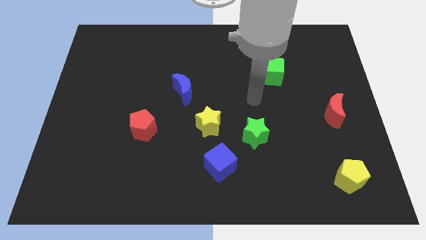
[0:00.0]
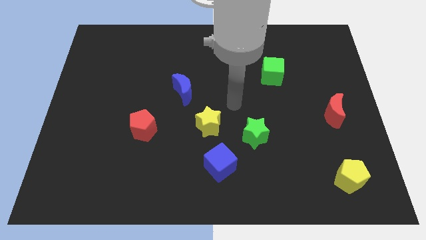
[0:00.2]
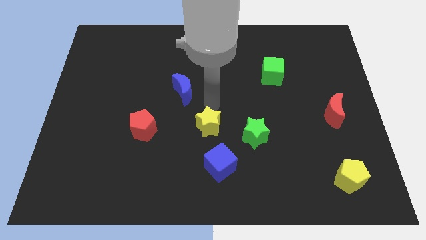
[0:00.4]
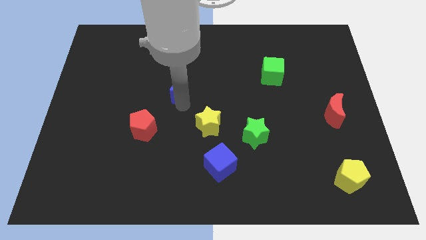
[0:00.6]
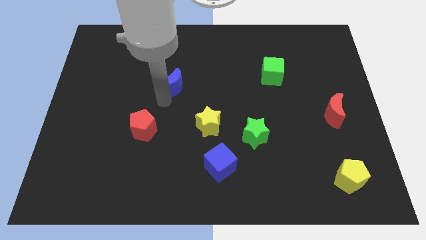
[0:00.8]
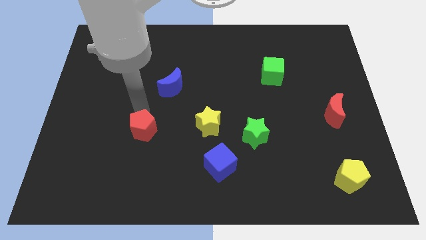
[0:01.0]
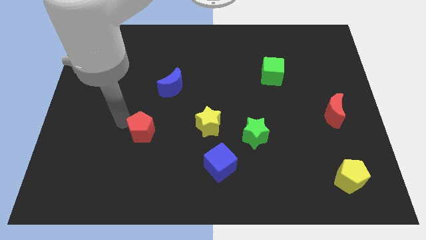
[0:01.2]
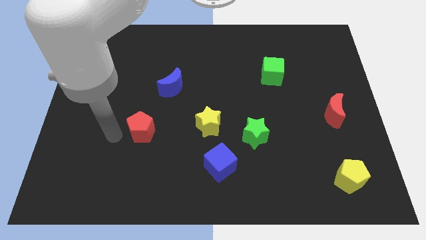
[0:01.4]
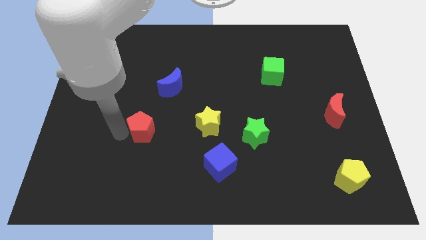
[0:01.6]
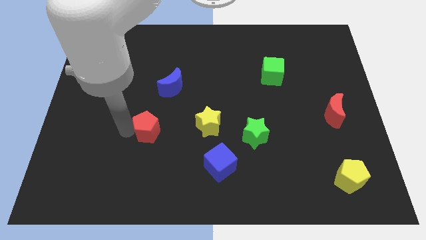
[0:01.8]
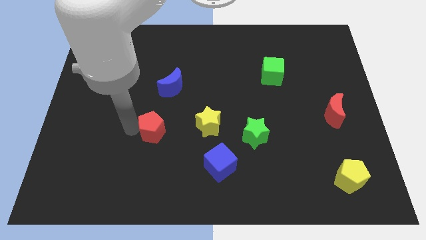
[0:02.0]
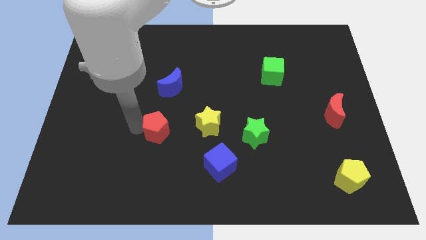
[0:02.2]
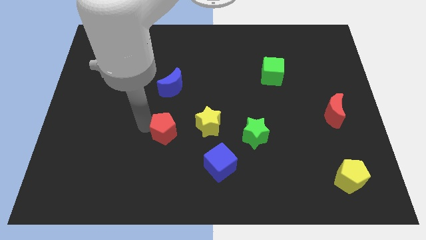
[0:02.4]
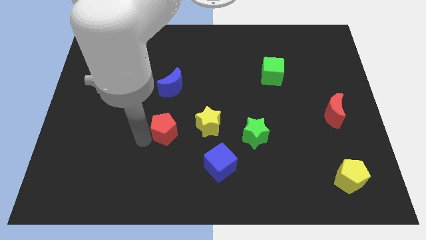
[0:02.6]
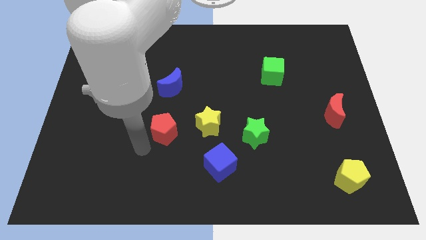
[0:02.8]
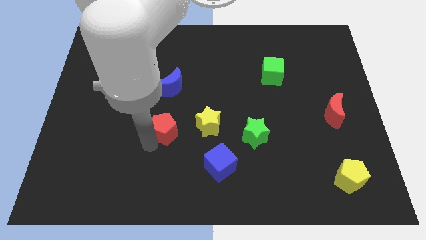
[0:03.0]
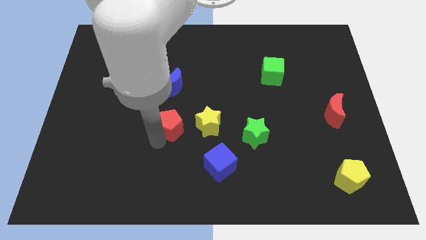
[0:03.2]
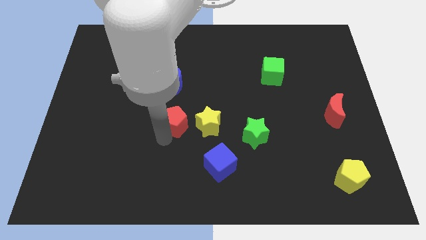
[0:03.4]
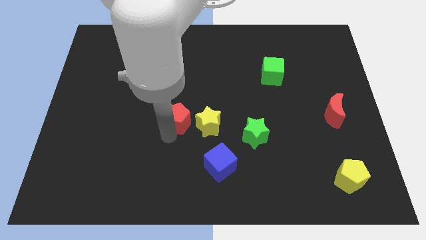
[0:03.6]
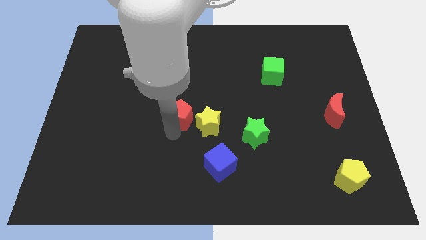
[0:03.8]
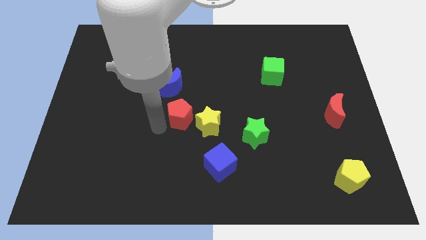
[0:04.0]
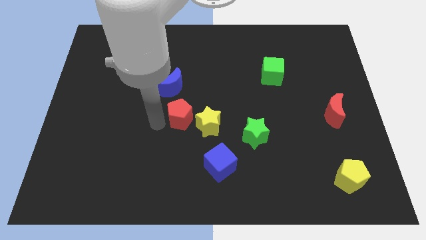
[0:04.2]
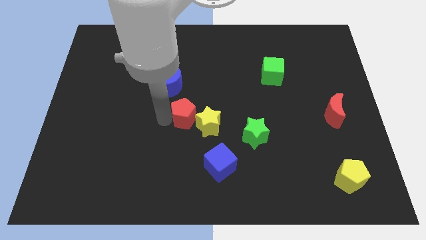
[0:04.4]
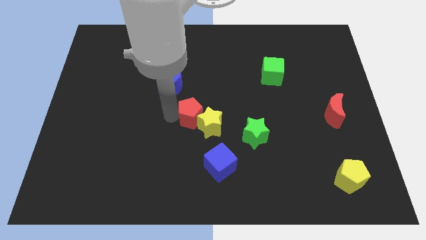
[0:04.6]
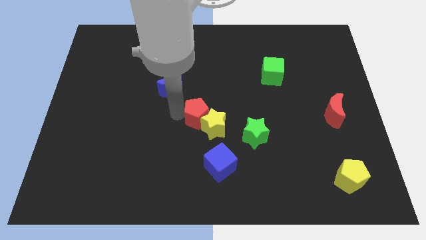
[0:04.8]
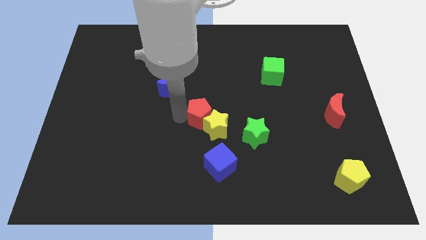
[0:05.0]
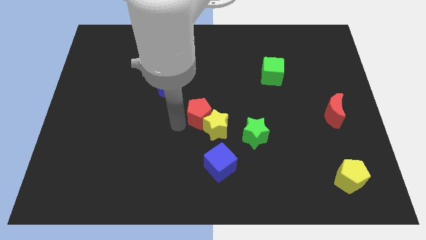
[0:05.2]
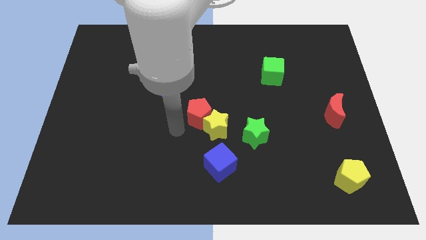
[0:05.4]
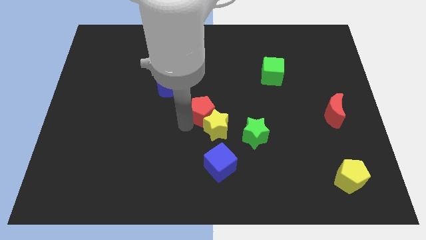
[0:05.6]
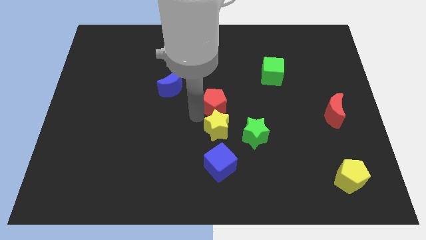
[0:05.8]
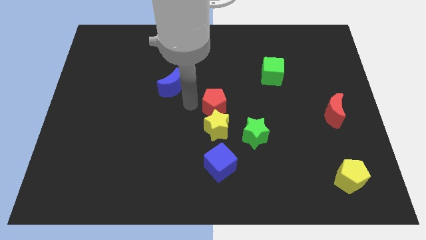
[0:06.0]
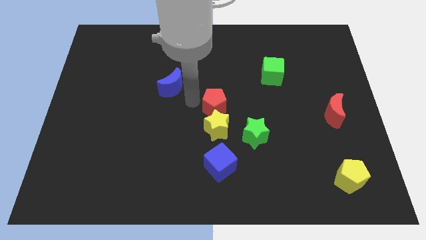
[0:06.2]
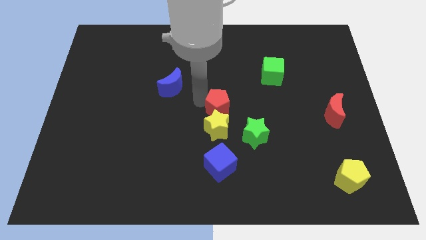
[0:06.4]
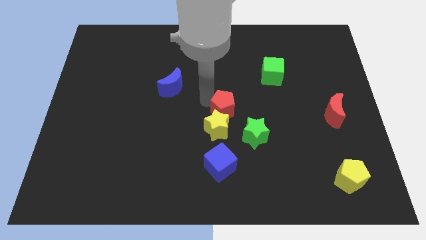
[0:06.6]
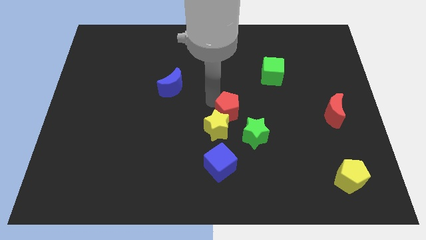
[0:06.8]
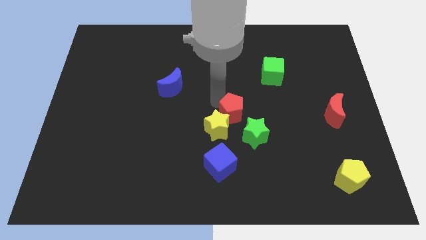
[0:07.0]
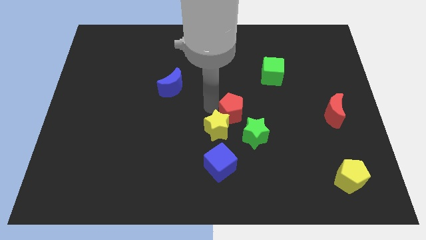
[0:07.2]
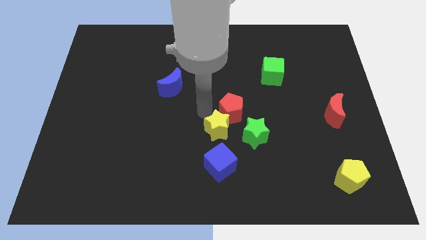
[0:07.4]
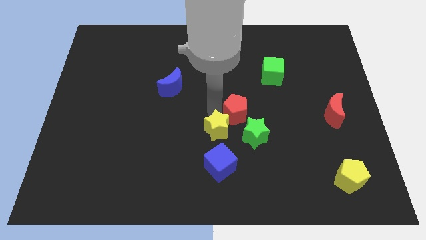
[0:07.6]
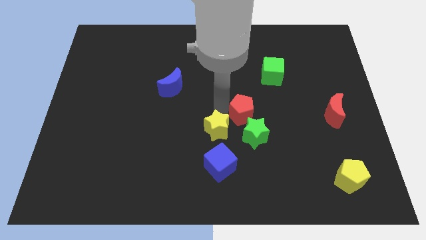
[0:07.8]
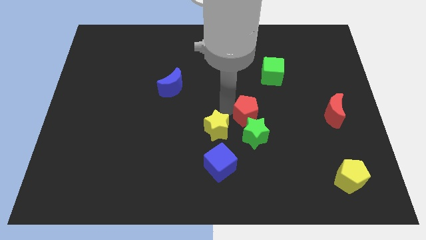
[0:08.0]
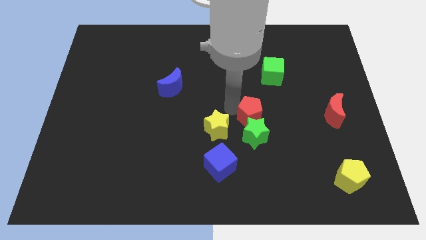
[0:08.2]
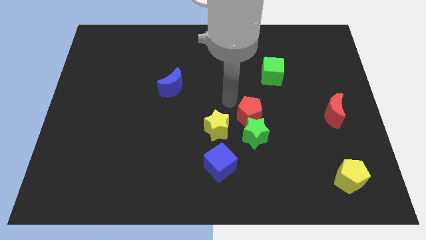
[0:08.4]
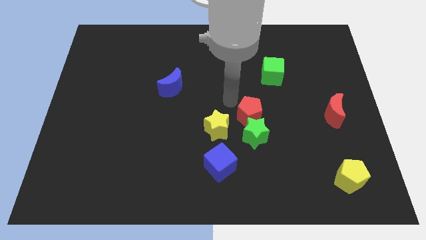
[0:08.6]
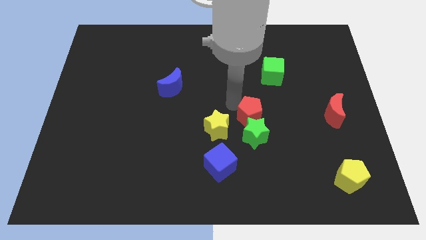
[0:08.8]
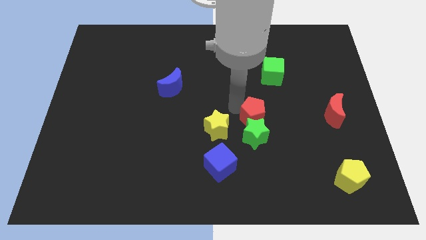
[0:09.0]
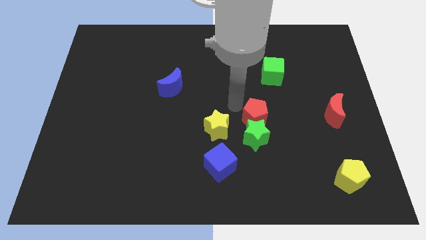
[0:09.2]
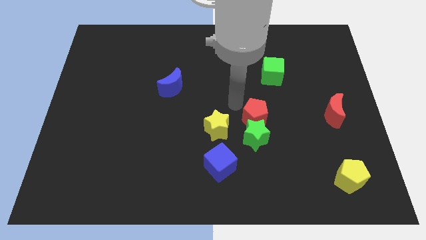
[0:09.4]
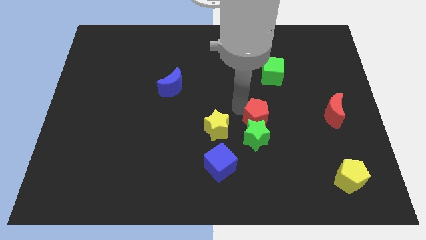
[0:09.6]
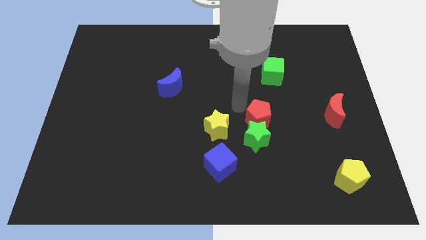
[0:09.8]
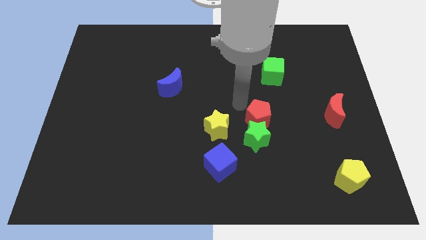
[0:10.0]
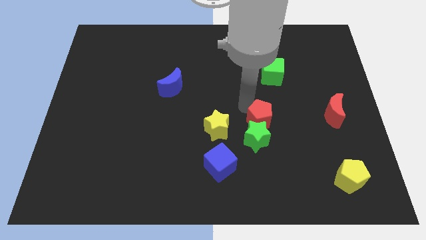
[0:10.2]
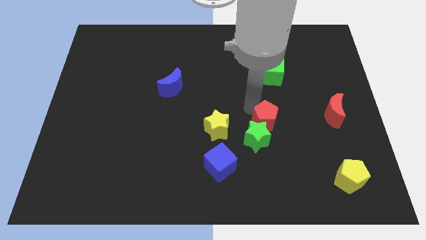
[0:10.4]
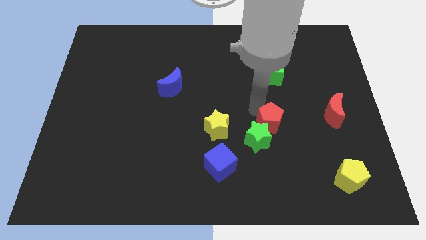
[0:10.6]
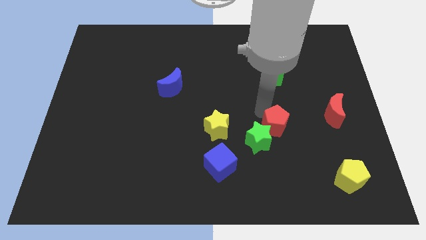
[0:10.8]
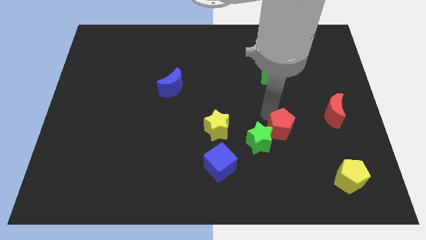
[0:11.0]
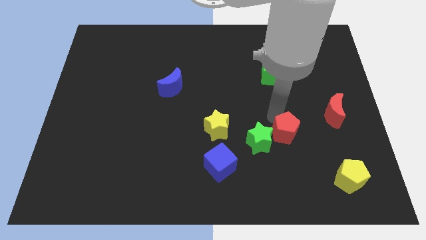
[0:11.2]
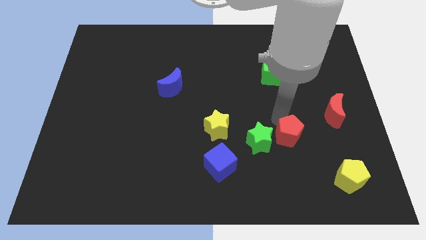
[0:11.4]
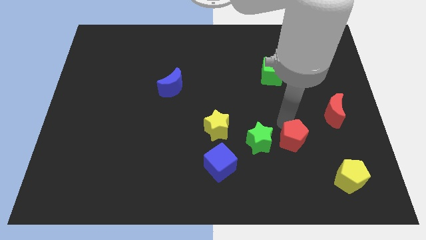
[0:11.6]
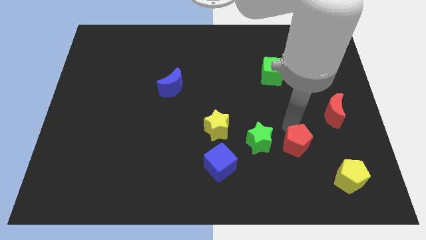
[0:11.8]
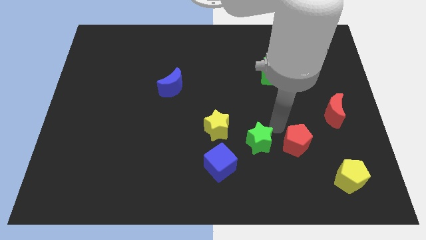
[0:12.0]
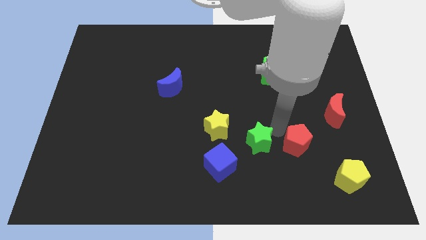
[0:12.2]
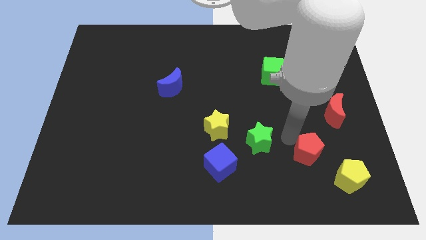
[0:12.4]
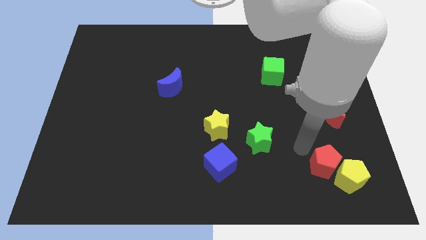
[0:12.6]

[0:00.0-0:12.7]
slide the red pentagon next to the yellow pentagon

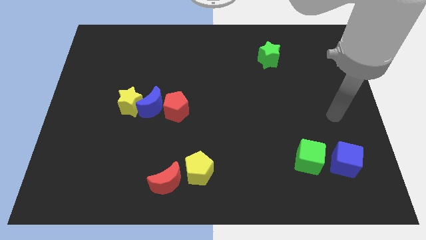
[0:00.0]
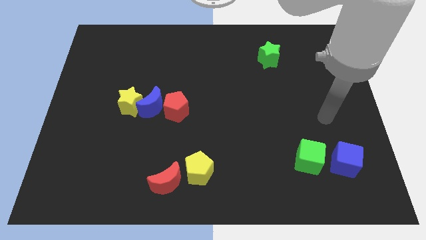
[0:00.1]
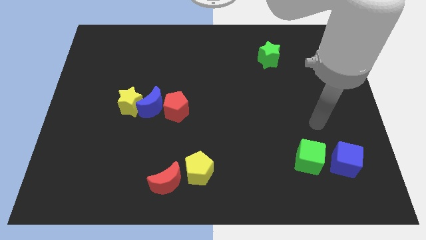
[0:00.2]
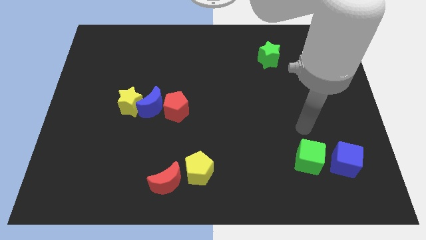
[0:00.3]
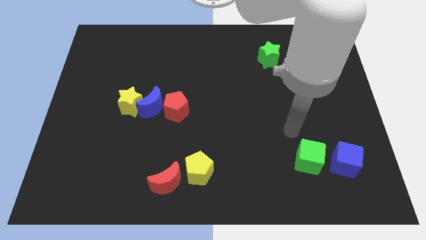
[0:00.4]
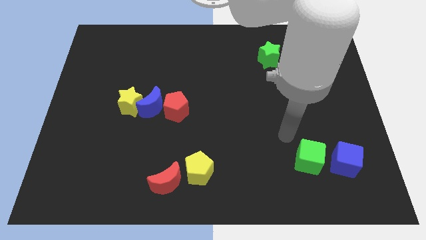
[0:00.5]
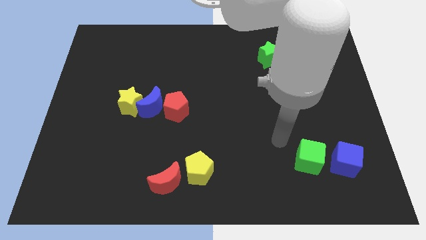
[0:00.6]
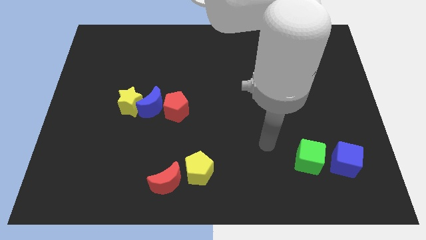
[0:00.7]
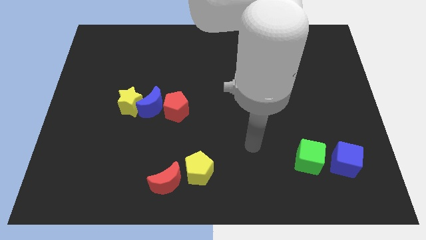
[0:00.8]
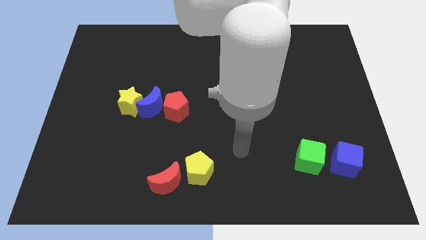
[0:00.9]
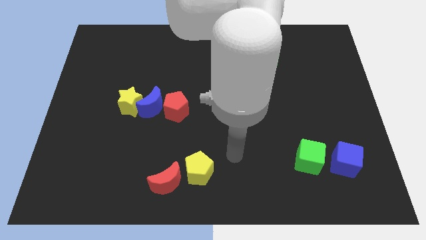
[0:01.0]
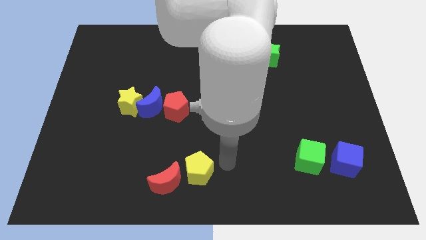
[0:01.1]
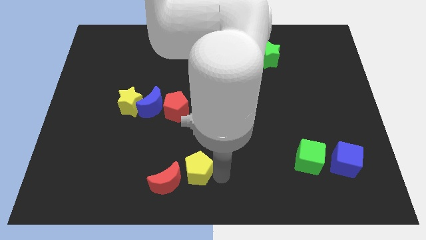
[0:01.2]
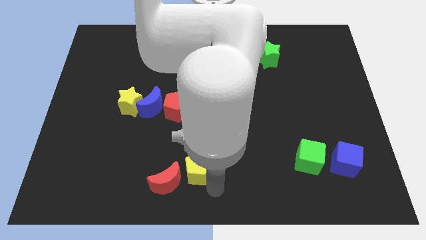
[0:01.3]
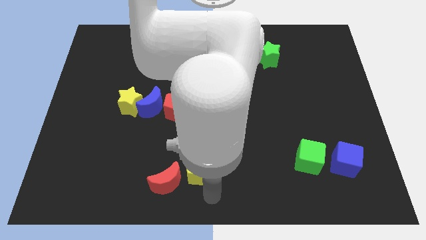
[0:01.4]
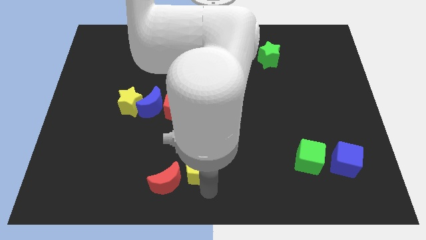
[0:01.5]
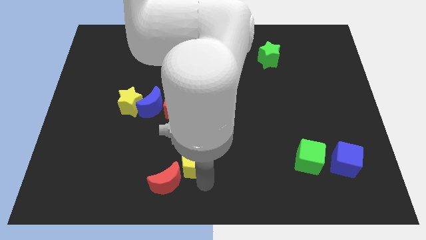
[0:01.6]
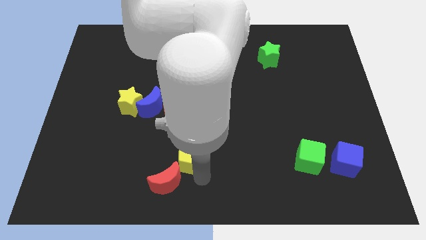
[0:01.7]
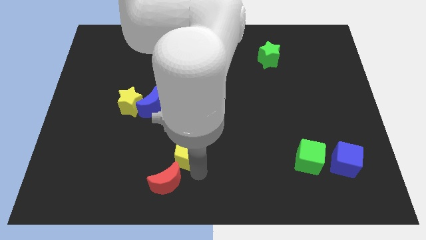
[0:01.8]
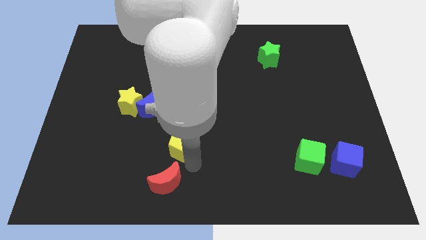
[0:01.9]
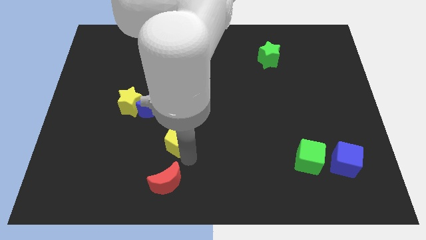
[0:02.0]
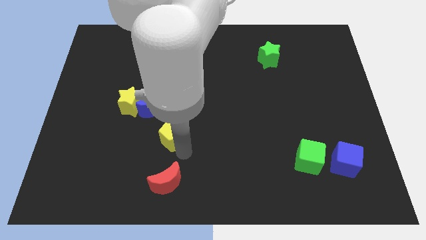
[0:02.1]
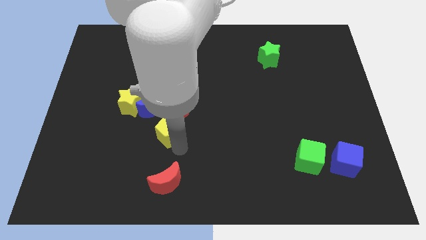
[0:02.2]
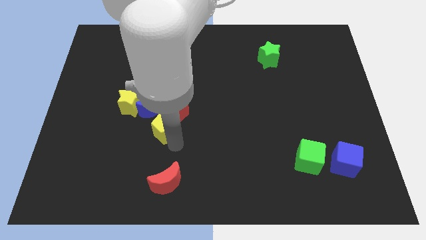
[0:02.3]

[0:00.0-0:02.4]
move the yellow pentagon towards the red pentagon
